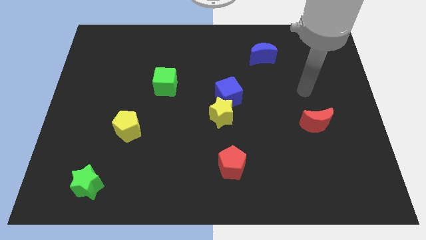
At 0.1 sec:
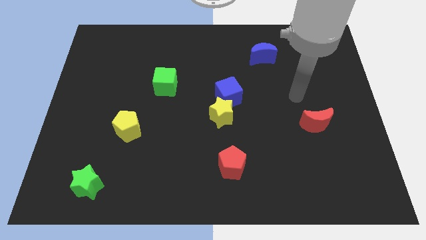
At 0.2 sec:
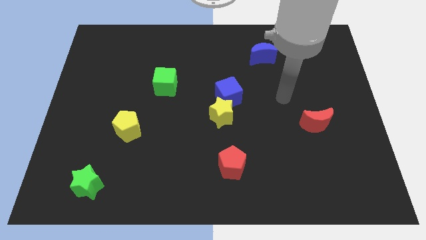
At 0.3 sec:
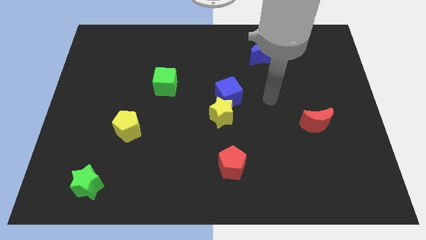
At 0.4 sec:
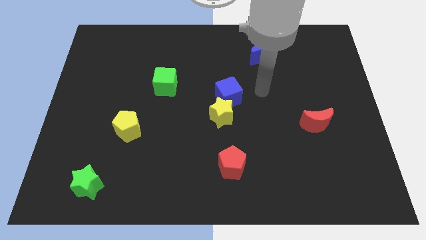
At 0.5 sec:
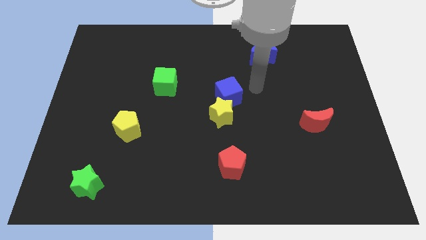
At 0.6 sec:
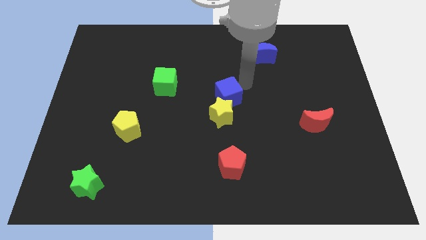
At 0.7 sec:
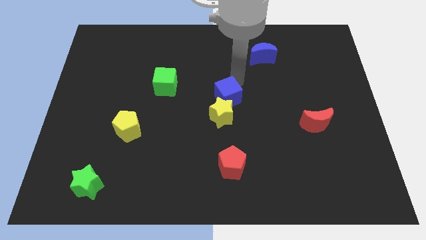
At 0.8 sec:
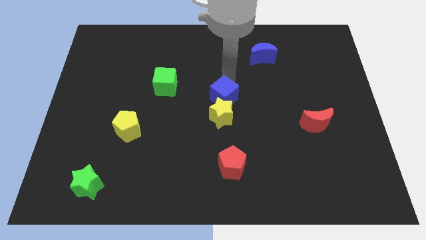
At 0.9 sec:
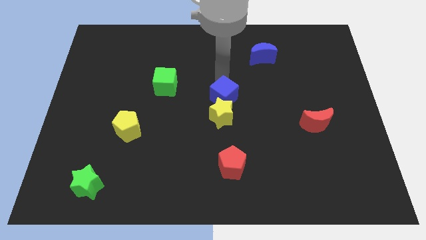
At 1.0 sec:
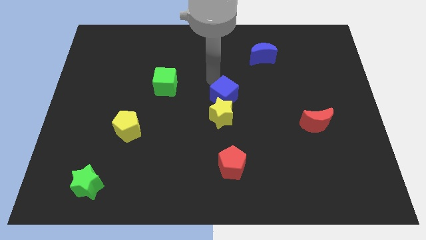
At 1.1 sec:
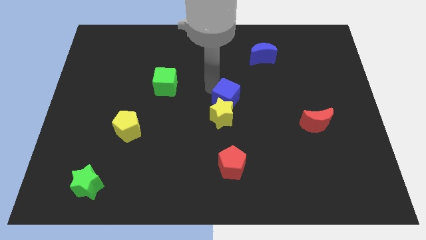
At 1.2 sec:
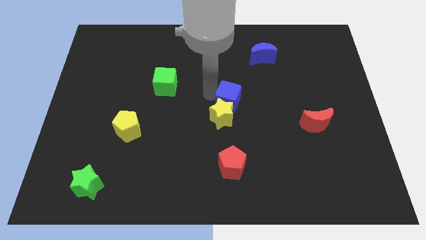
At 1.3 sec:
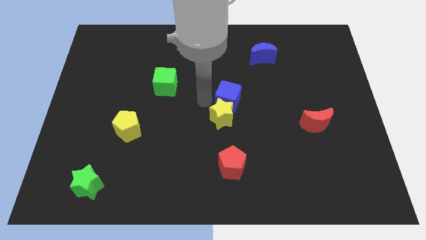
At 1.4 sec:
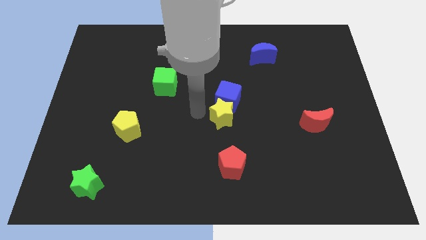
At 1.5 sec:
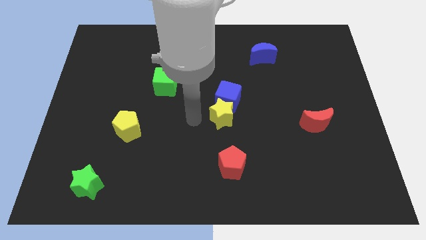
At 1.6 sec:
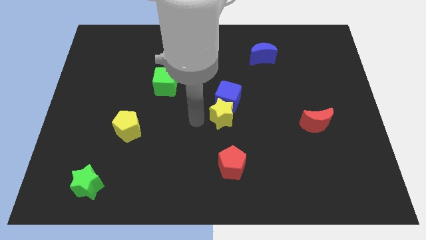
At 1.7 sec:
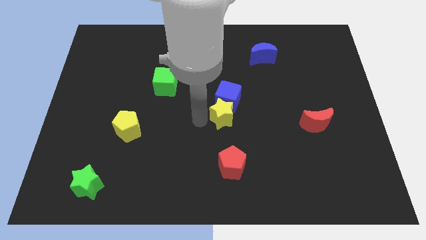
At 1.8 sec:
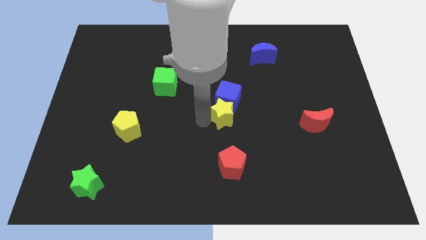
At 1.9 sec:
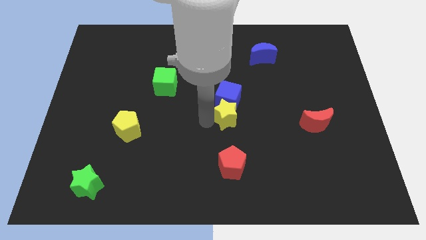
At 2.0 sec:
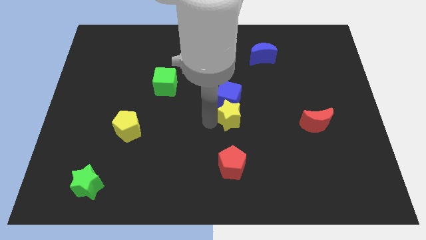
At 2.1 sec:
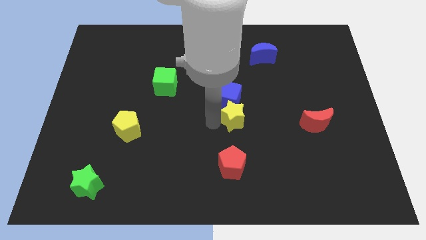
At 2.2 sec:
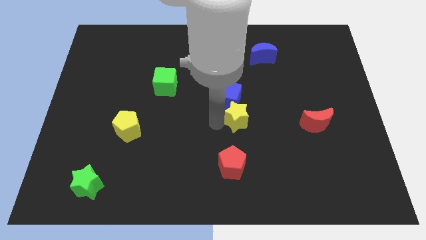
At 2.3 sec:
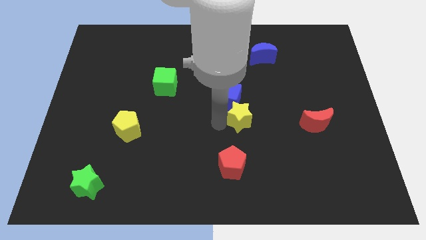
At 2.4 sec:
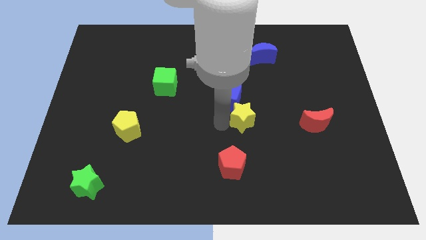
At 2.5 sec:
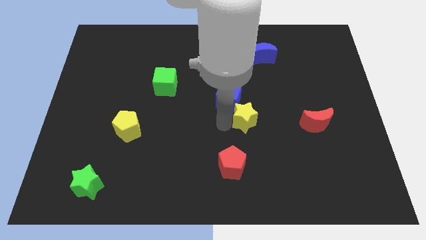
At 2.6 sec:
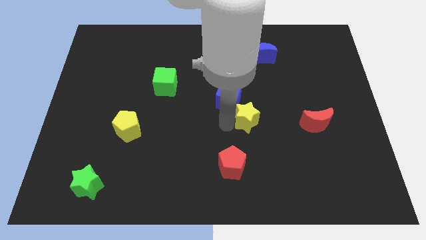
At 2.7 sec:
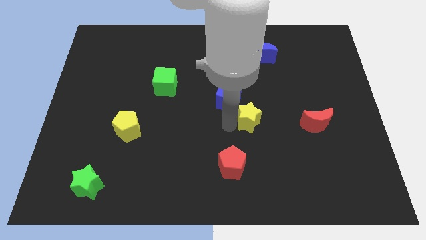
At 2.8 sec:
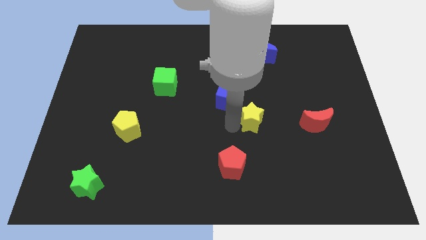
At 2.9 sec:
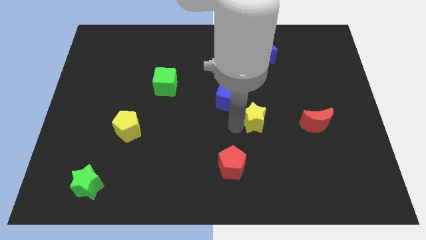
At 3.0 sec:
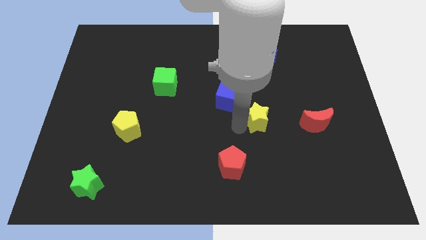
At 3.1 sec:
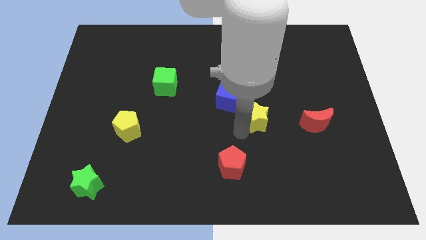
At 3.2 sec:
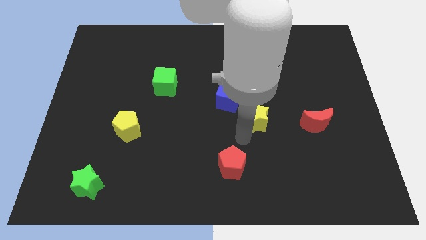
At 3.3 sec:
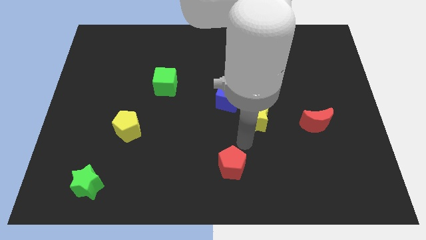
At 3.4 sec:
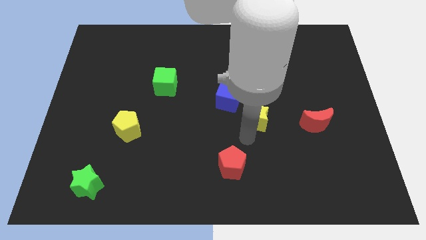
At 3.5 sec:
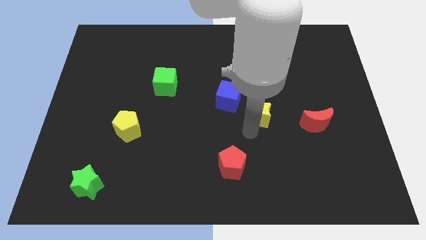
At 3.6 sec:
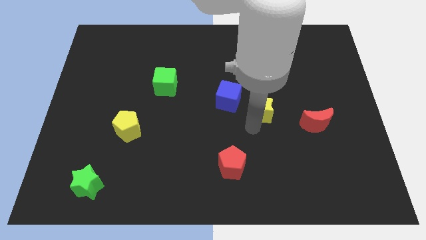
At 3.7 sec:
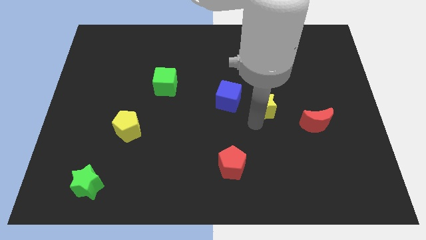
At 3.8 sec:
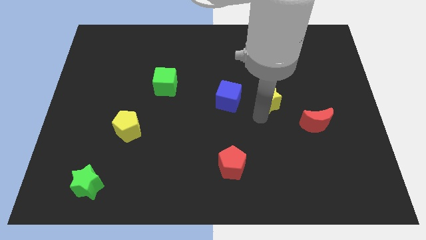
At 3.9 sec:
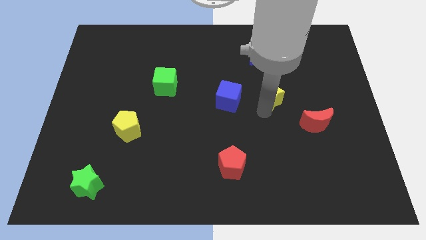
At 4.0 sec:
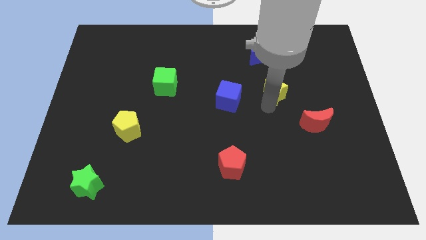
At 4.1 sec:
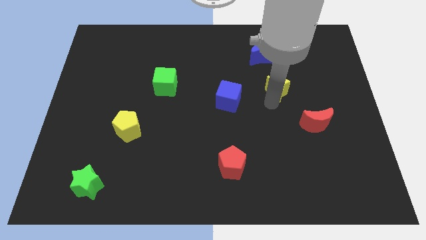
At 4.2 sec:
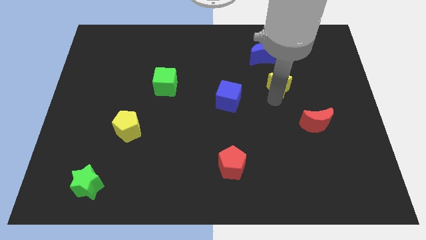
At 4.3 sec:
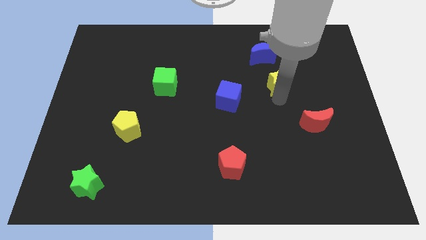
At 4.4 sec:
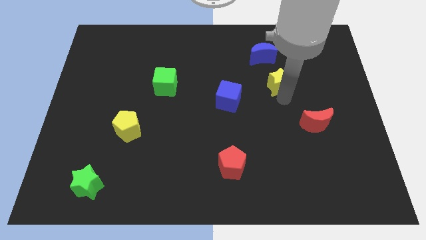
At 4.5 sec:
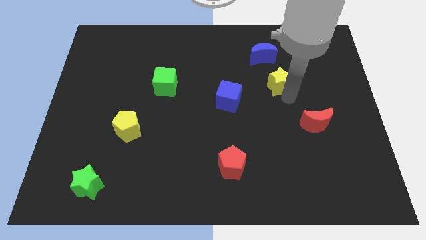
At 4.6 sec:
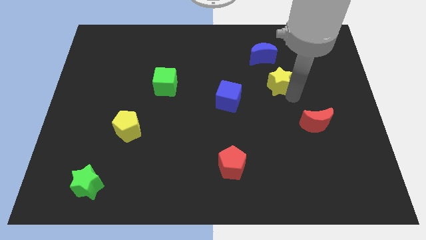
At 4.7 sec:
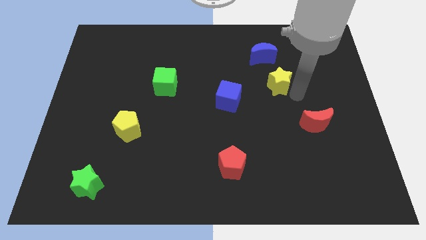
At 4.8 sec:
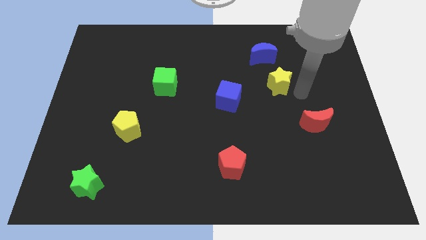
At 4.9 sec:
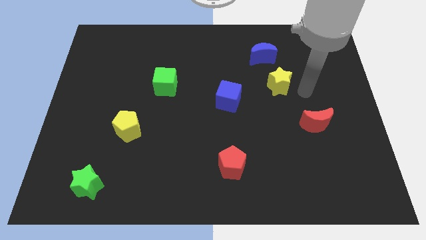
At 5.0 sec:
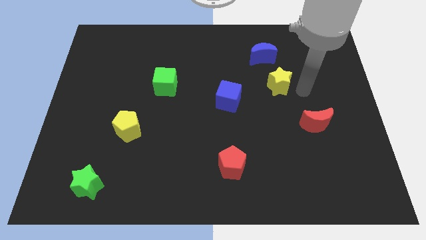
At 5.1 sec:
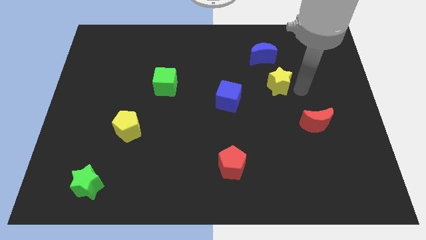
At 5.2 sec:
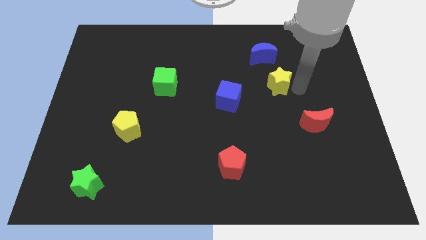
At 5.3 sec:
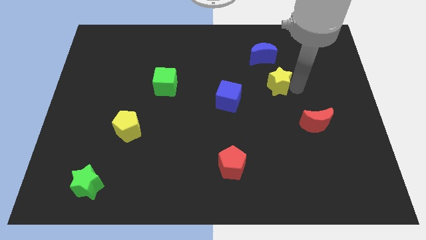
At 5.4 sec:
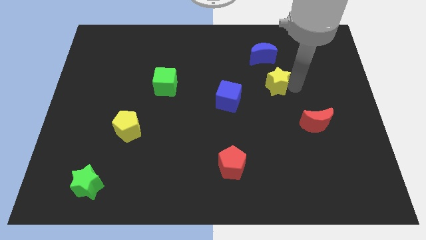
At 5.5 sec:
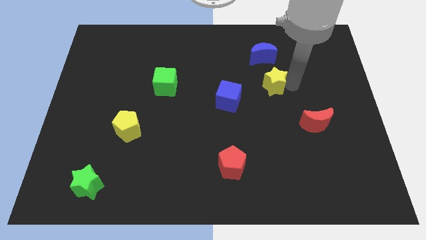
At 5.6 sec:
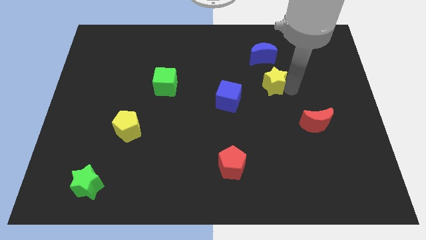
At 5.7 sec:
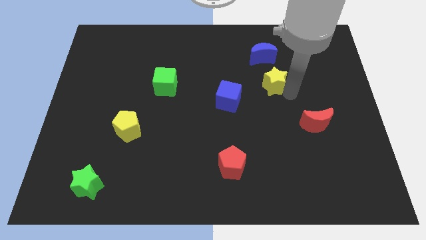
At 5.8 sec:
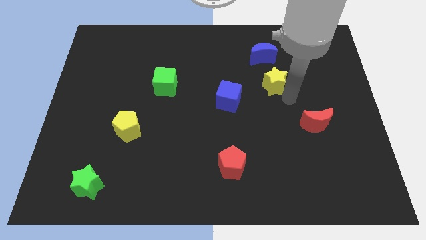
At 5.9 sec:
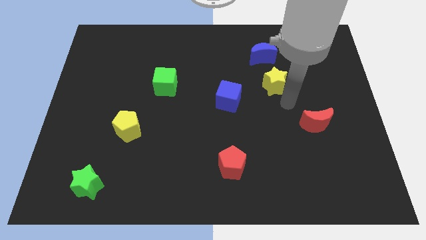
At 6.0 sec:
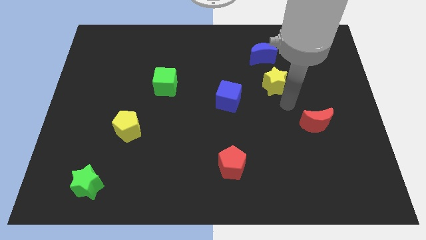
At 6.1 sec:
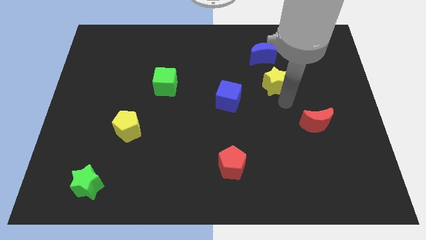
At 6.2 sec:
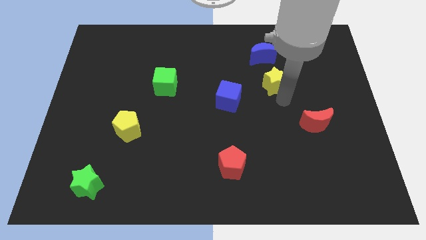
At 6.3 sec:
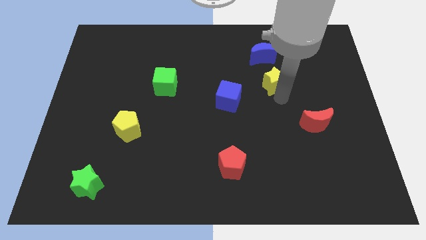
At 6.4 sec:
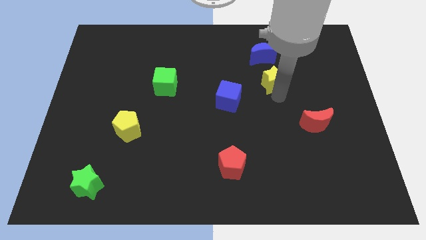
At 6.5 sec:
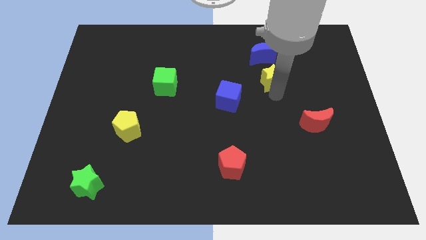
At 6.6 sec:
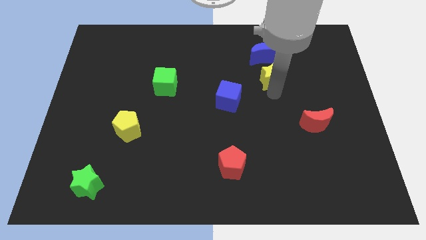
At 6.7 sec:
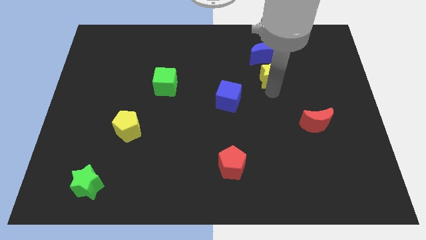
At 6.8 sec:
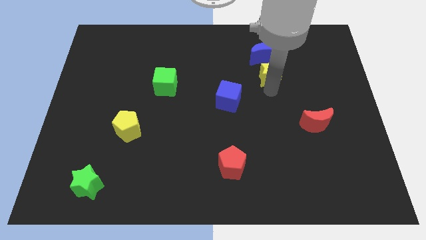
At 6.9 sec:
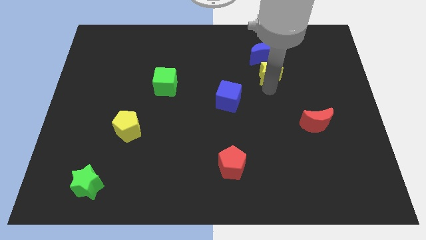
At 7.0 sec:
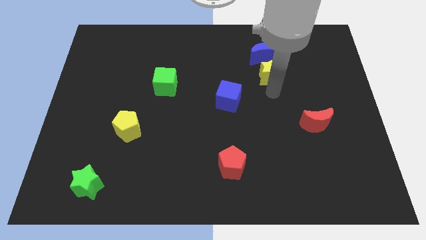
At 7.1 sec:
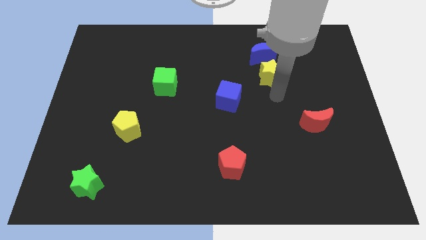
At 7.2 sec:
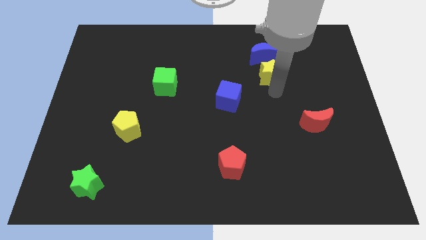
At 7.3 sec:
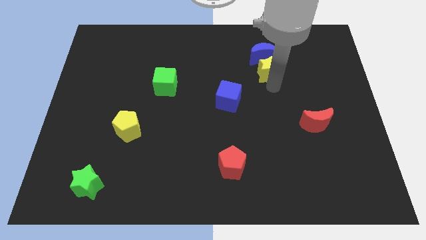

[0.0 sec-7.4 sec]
put the yellow star to the blue moon
